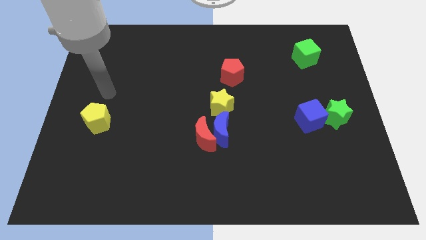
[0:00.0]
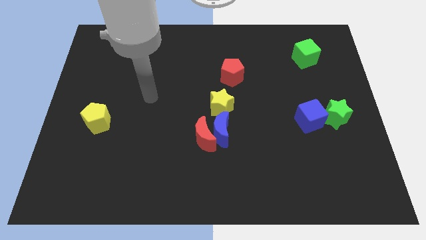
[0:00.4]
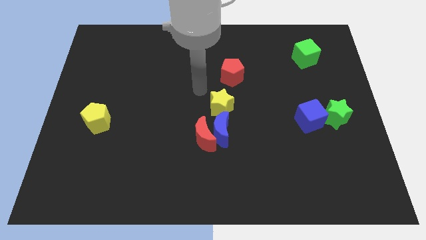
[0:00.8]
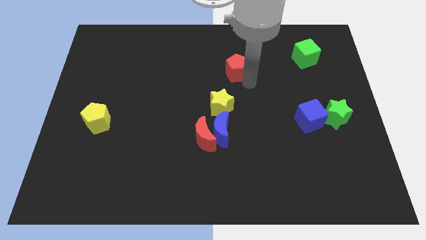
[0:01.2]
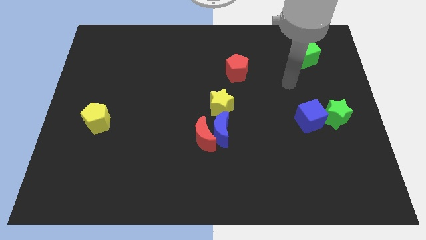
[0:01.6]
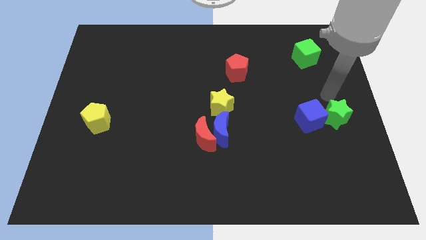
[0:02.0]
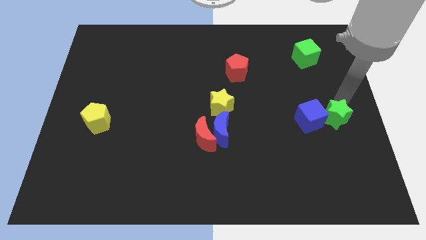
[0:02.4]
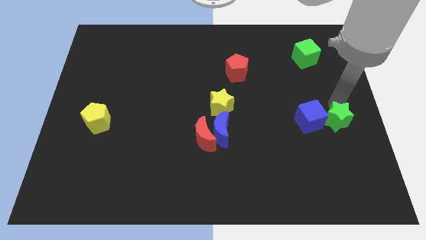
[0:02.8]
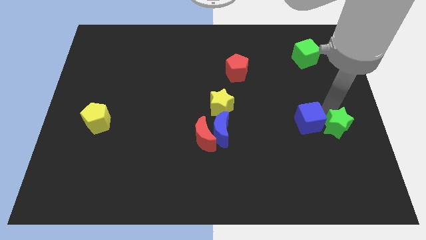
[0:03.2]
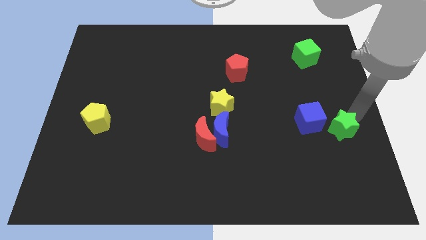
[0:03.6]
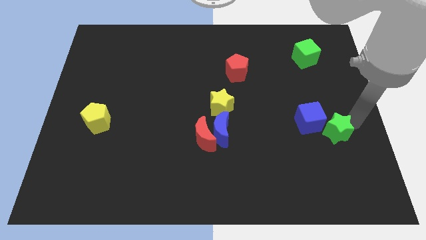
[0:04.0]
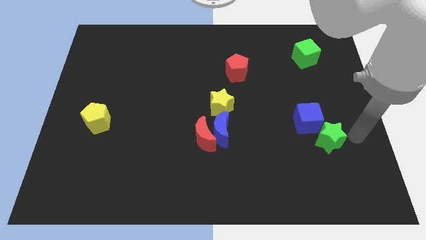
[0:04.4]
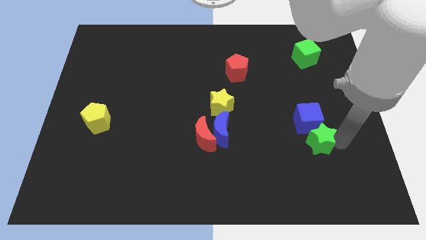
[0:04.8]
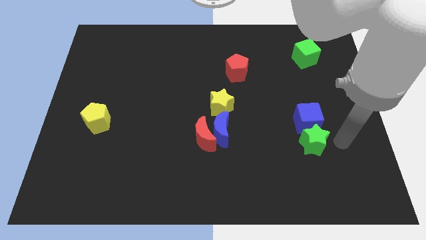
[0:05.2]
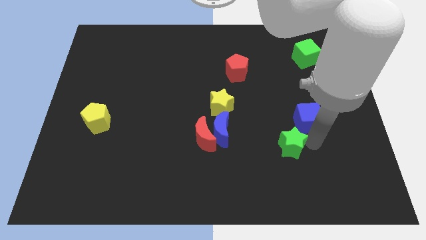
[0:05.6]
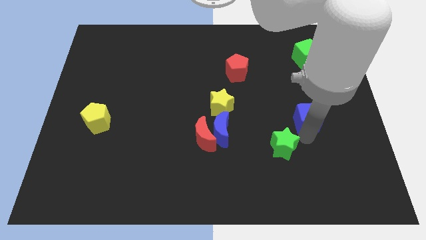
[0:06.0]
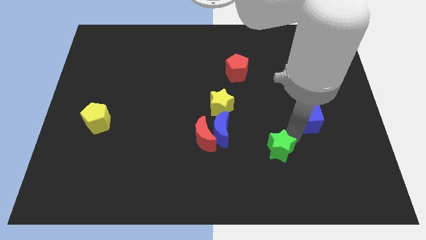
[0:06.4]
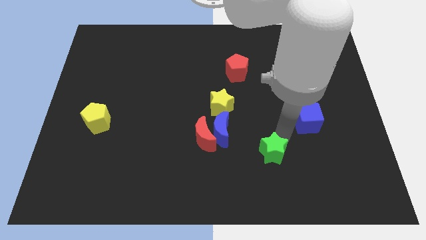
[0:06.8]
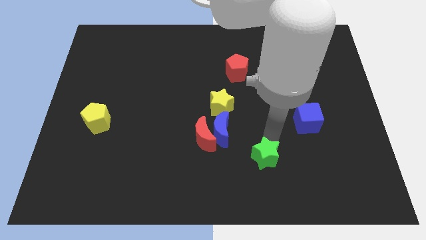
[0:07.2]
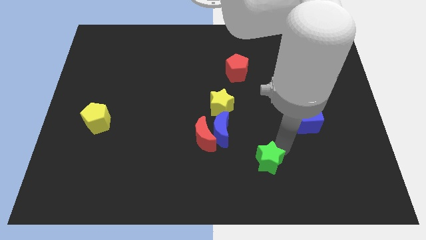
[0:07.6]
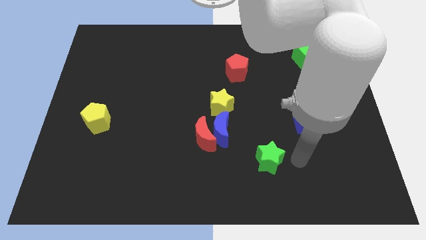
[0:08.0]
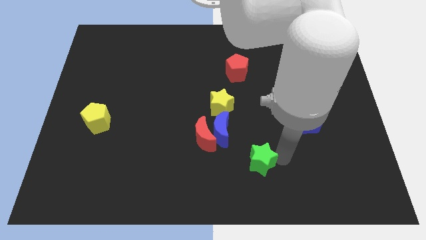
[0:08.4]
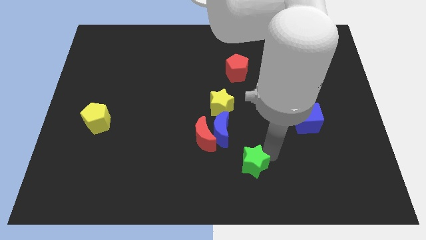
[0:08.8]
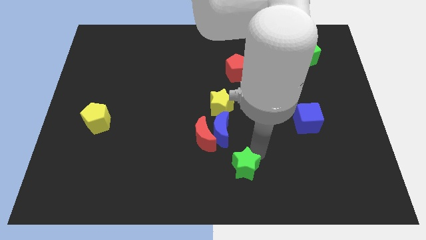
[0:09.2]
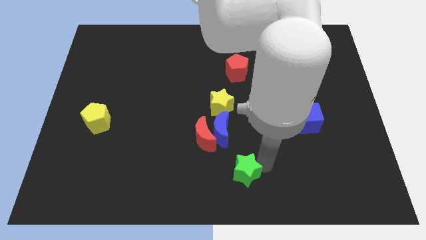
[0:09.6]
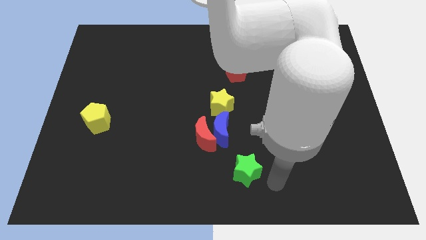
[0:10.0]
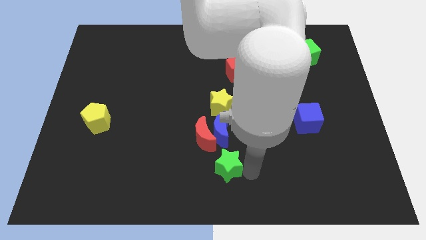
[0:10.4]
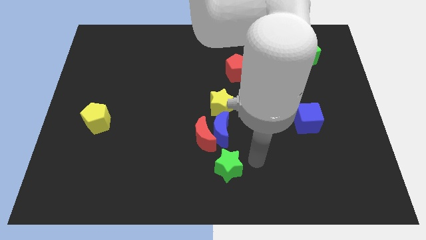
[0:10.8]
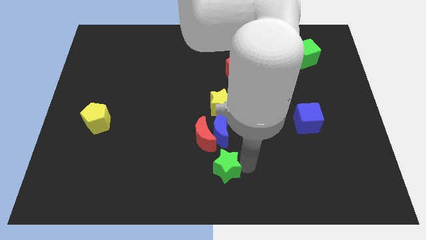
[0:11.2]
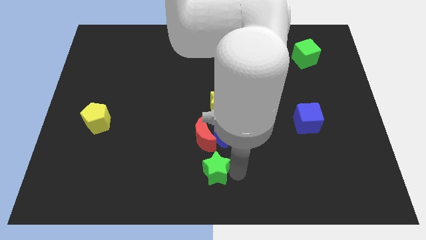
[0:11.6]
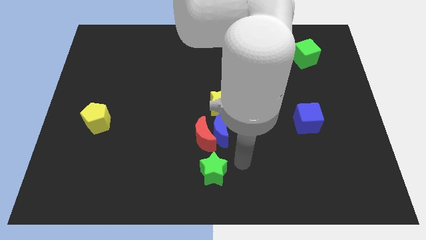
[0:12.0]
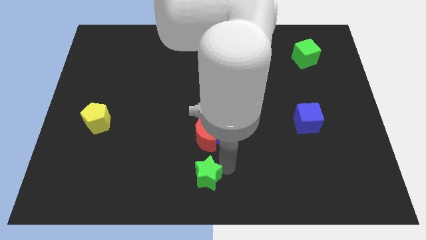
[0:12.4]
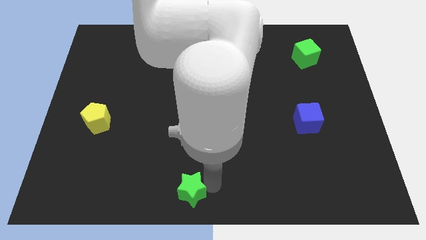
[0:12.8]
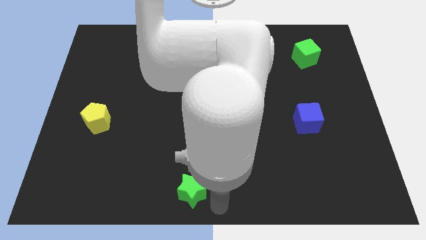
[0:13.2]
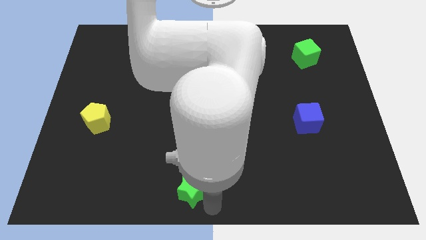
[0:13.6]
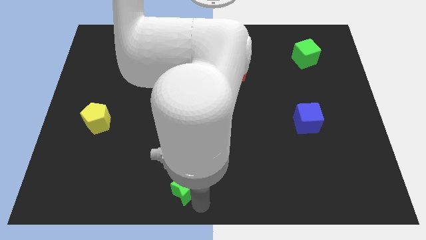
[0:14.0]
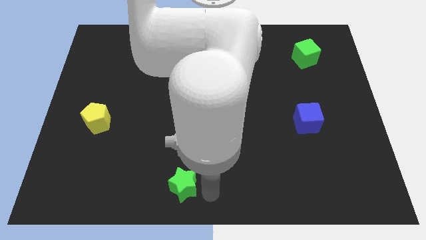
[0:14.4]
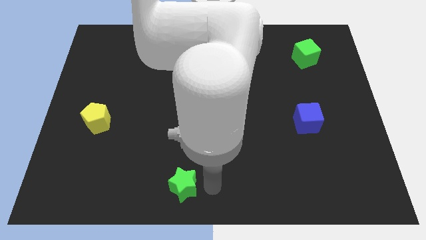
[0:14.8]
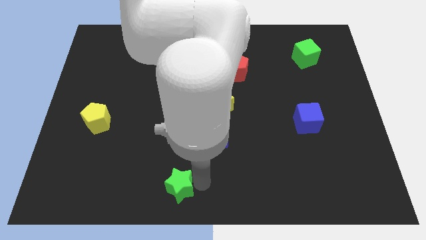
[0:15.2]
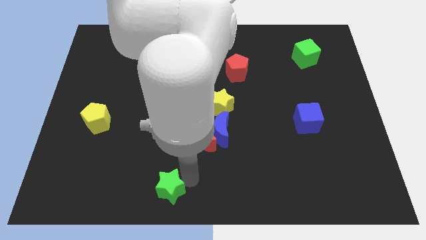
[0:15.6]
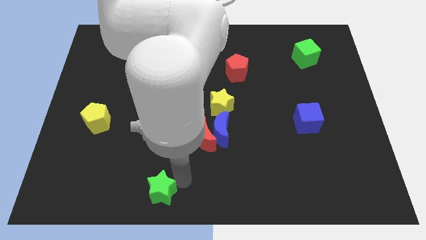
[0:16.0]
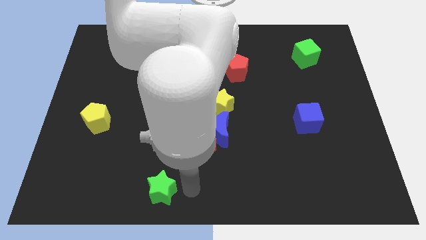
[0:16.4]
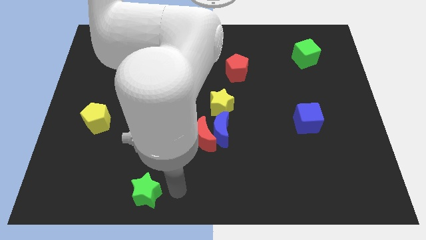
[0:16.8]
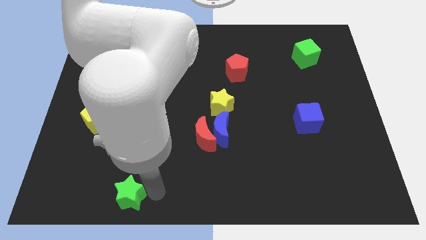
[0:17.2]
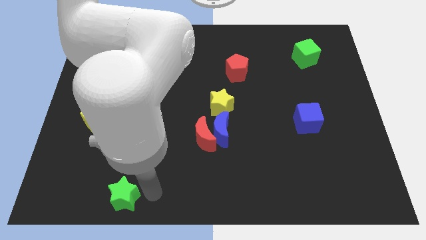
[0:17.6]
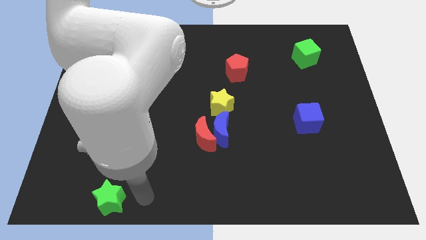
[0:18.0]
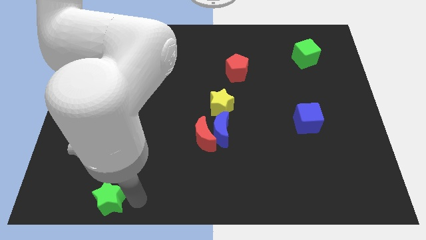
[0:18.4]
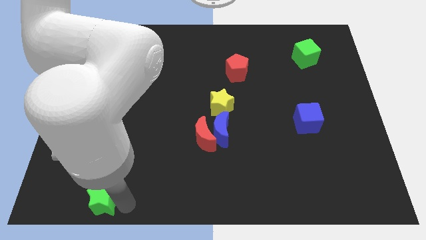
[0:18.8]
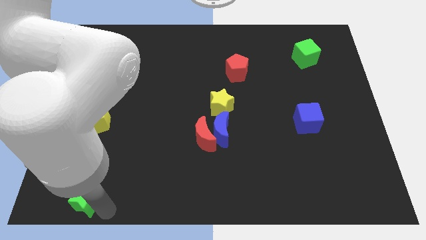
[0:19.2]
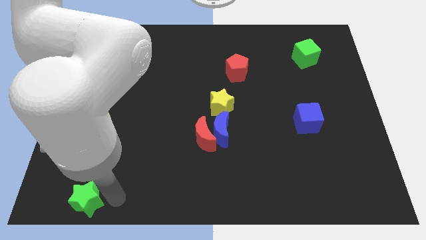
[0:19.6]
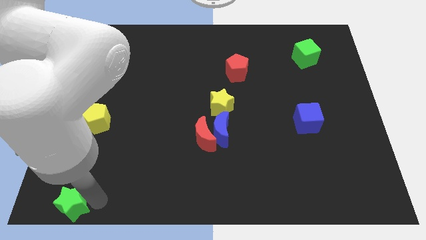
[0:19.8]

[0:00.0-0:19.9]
push the green star to the lower left corner
